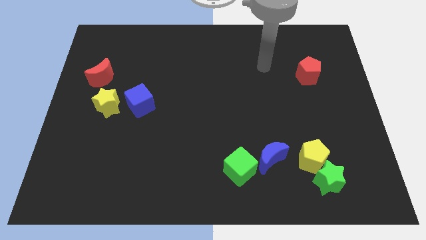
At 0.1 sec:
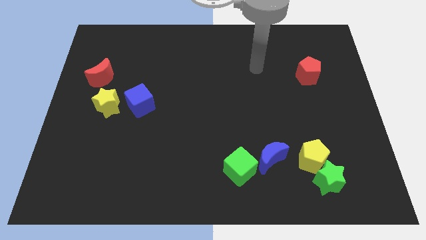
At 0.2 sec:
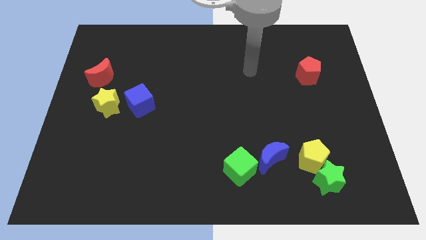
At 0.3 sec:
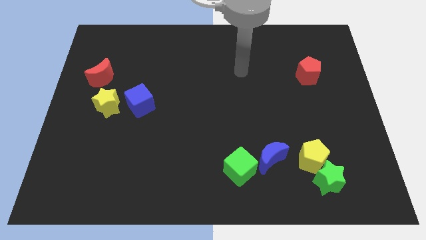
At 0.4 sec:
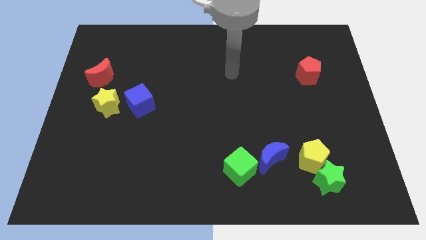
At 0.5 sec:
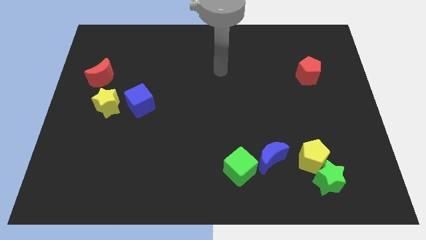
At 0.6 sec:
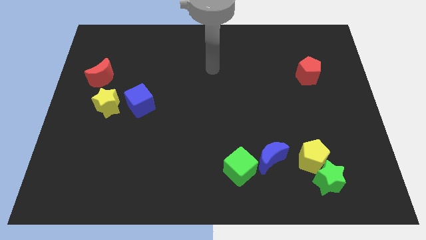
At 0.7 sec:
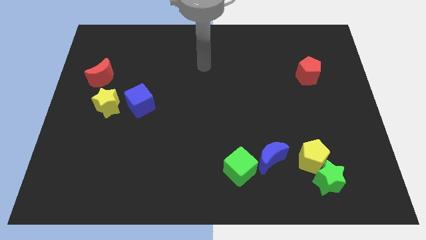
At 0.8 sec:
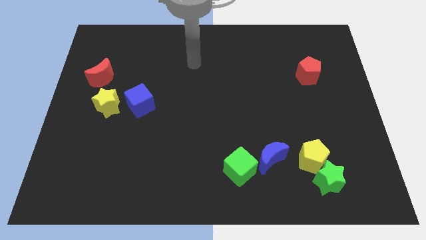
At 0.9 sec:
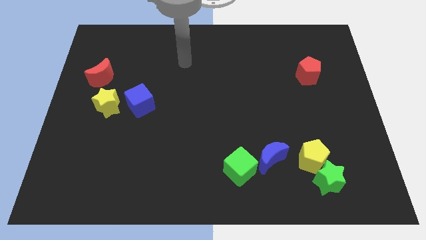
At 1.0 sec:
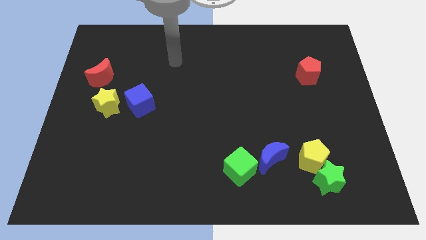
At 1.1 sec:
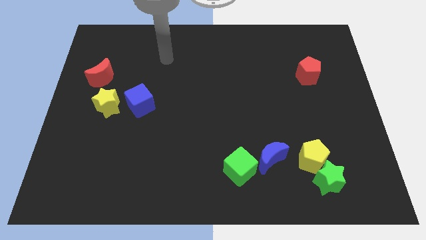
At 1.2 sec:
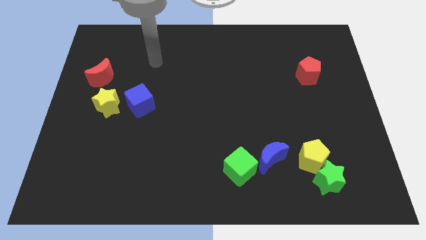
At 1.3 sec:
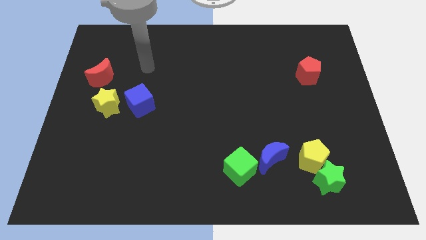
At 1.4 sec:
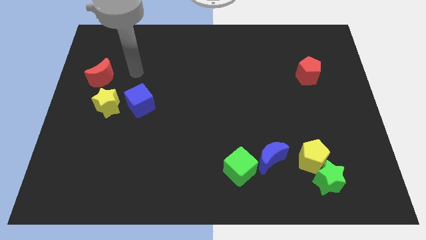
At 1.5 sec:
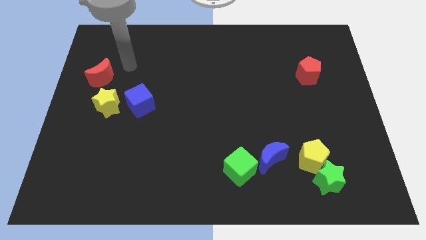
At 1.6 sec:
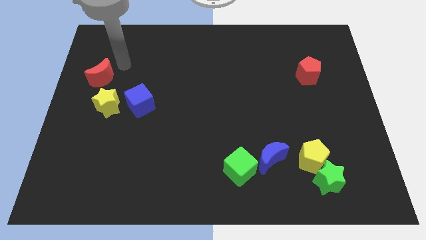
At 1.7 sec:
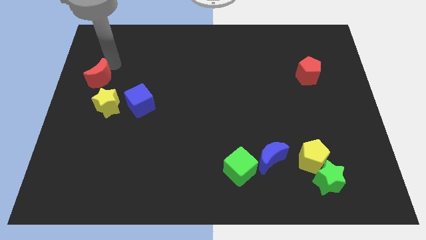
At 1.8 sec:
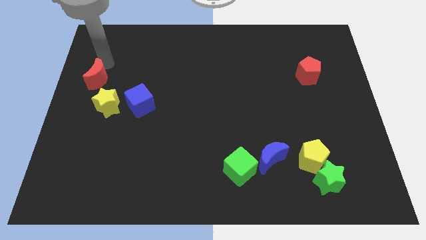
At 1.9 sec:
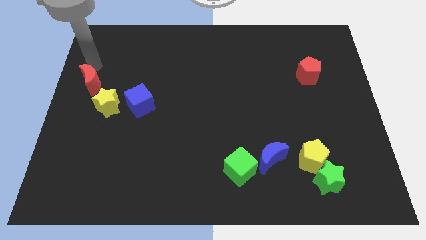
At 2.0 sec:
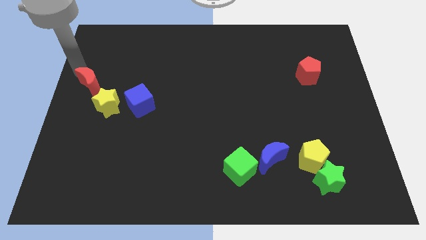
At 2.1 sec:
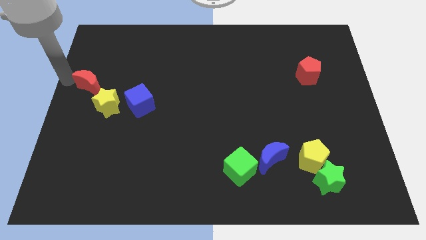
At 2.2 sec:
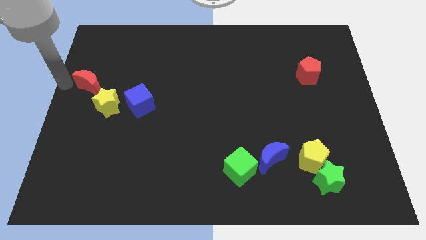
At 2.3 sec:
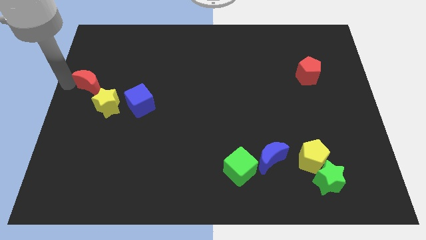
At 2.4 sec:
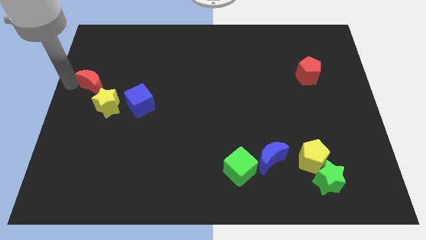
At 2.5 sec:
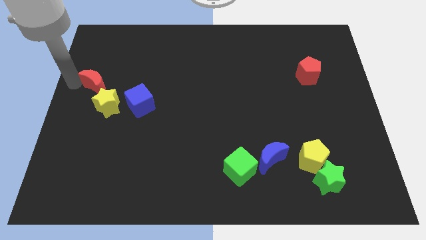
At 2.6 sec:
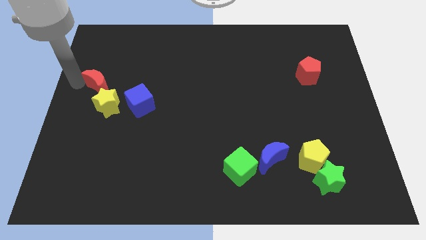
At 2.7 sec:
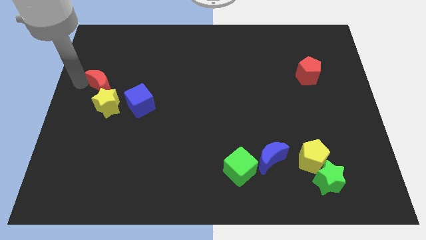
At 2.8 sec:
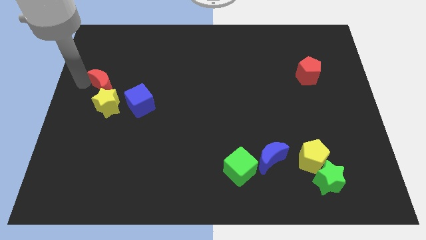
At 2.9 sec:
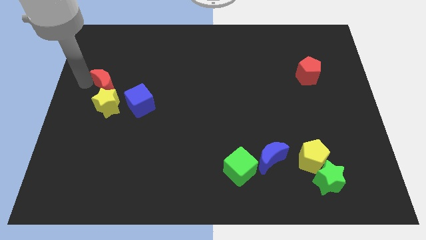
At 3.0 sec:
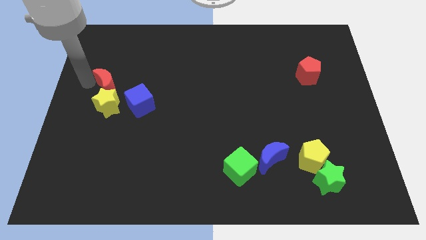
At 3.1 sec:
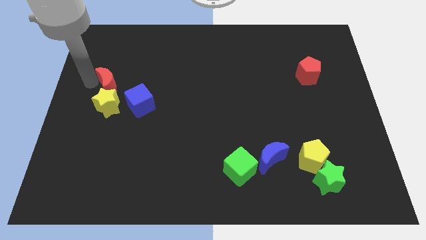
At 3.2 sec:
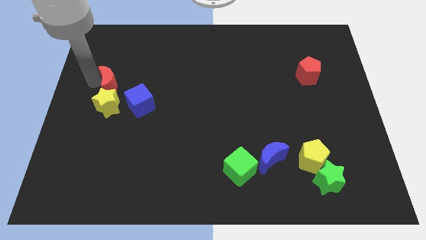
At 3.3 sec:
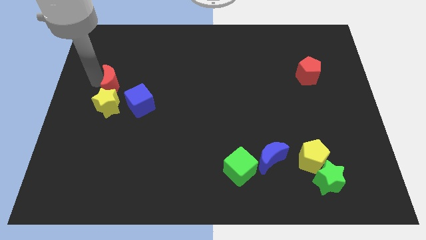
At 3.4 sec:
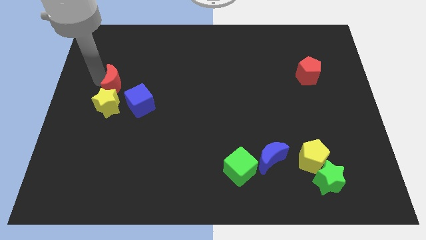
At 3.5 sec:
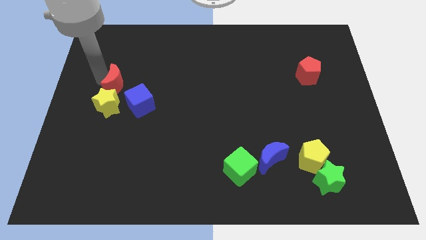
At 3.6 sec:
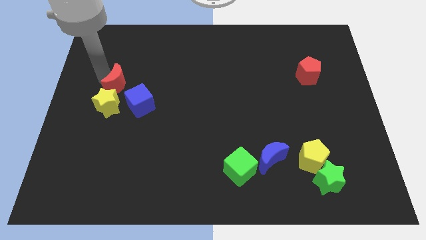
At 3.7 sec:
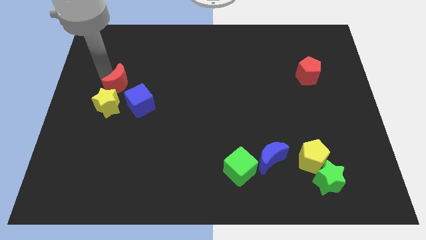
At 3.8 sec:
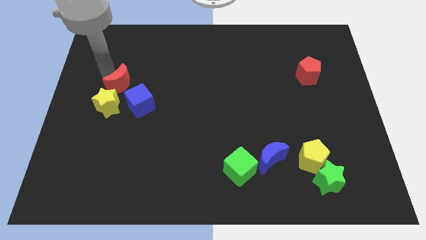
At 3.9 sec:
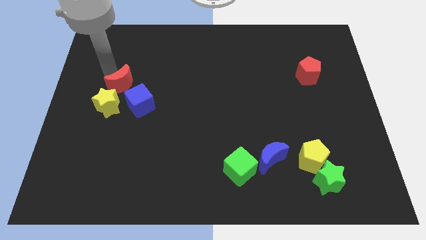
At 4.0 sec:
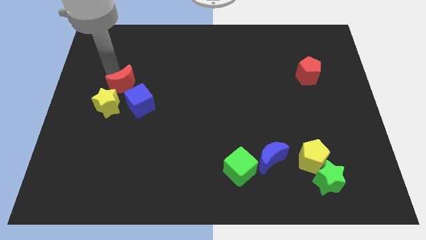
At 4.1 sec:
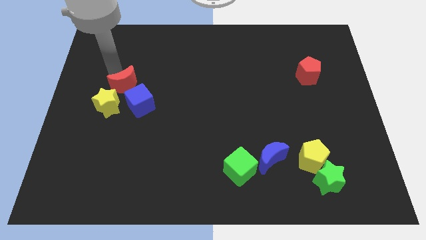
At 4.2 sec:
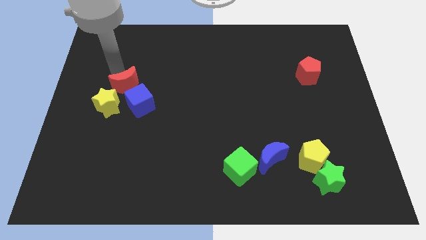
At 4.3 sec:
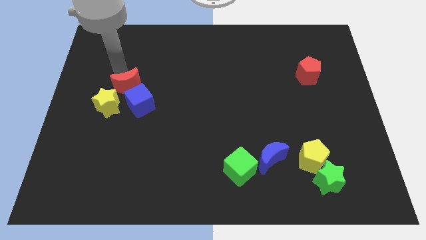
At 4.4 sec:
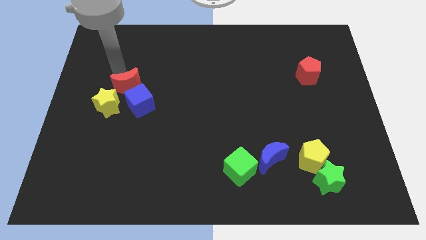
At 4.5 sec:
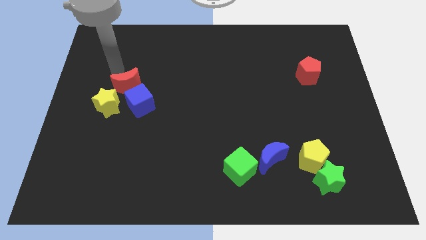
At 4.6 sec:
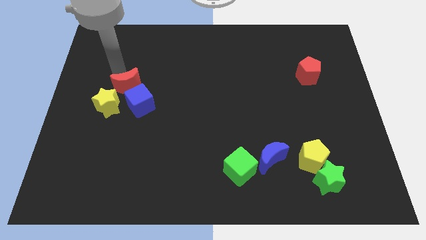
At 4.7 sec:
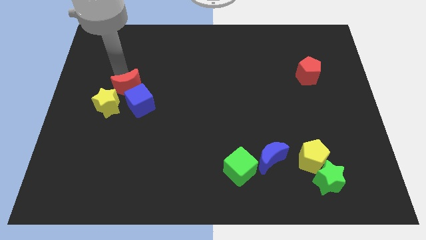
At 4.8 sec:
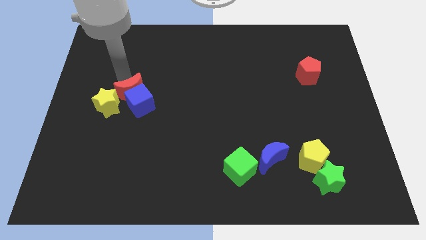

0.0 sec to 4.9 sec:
push the red moon close to the blue cube

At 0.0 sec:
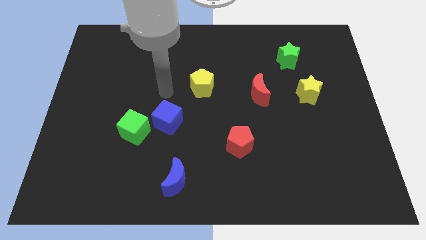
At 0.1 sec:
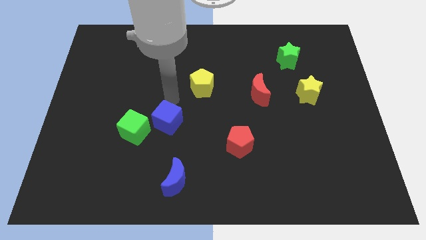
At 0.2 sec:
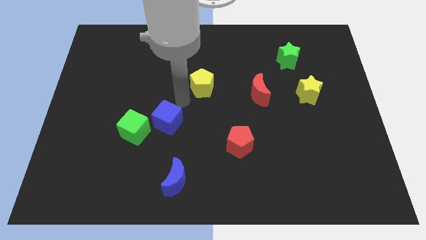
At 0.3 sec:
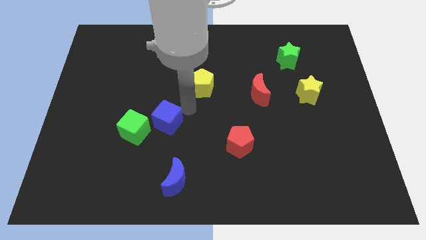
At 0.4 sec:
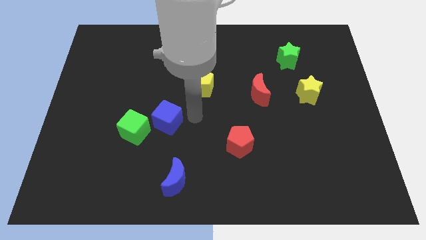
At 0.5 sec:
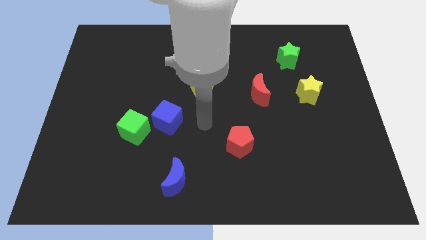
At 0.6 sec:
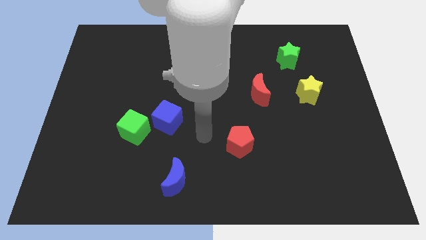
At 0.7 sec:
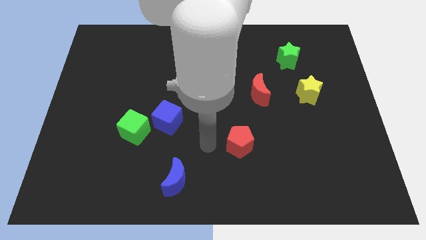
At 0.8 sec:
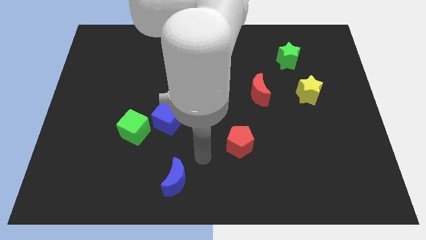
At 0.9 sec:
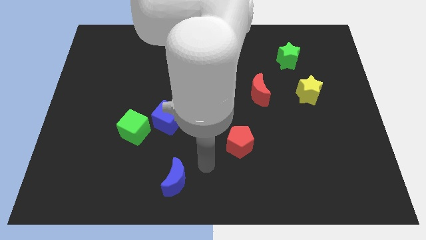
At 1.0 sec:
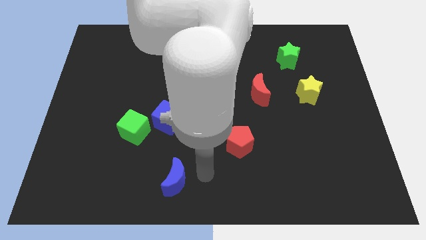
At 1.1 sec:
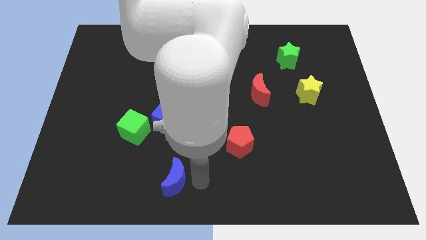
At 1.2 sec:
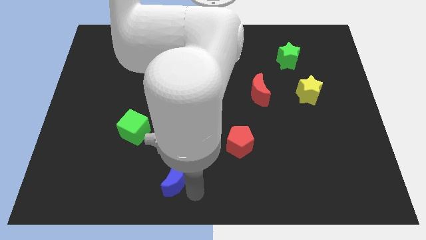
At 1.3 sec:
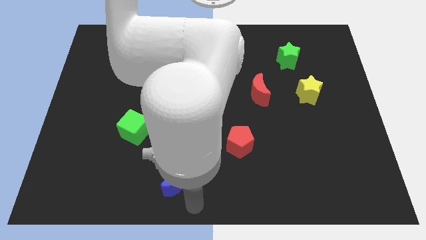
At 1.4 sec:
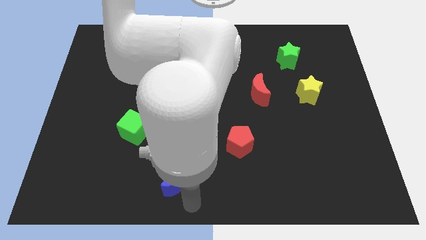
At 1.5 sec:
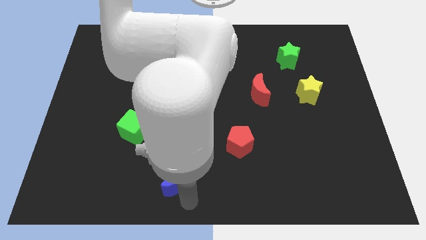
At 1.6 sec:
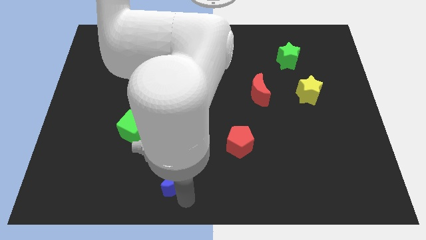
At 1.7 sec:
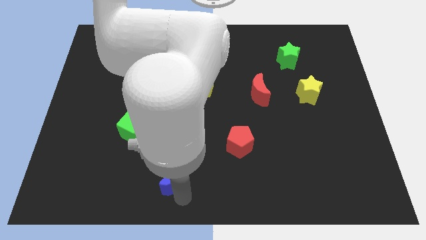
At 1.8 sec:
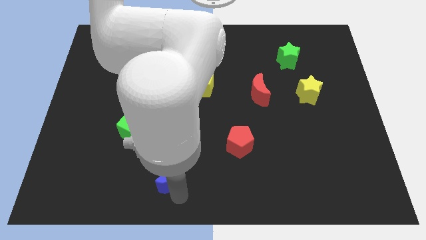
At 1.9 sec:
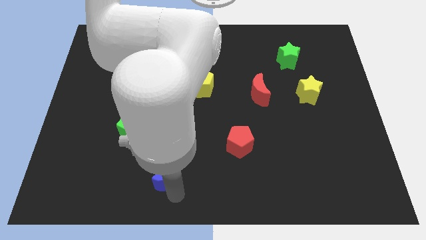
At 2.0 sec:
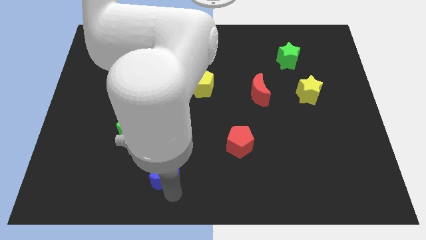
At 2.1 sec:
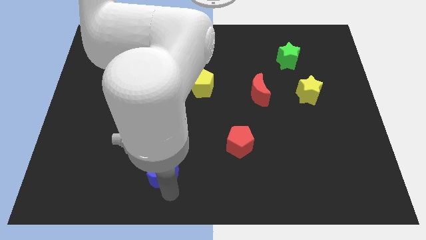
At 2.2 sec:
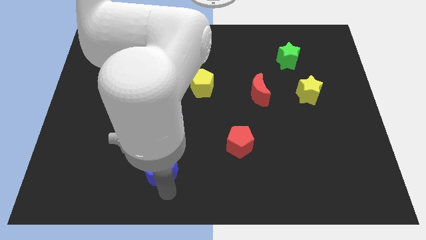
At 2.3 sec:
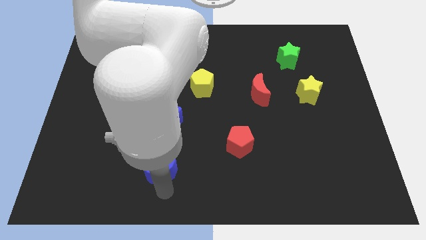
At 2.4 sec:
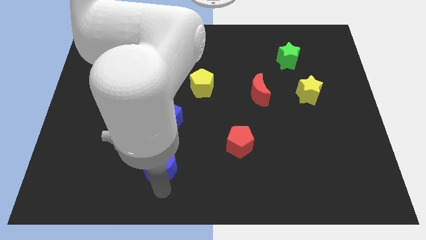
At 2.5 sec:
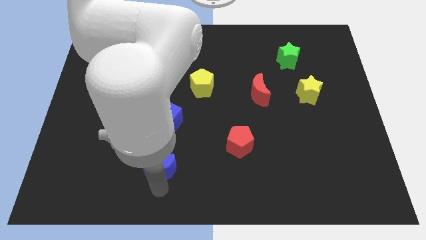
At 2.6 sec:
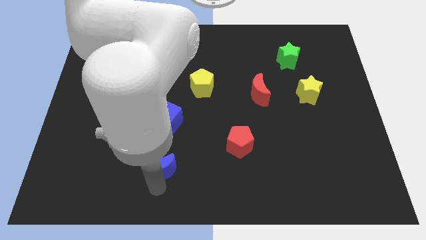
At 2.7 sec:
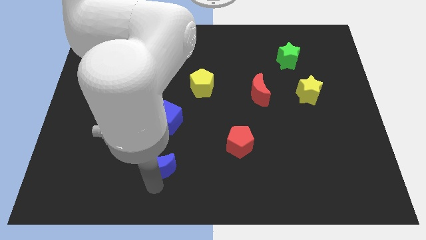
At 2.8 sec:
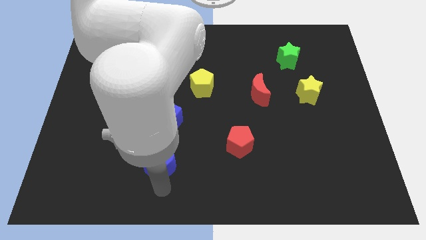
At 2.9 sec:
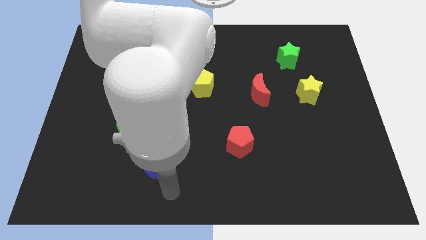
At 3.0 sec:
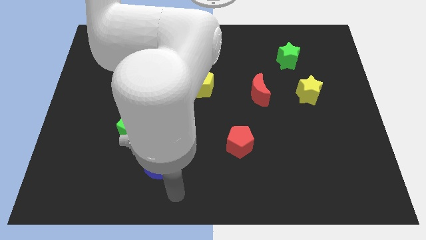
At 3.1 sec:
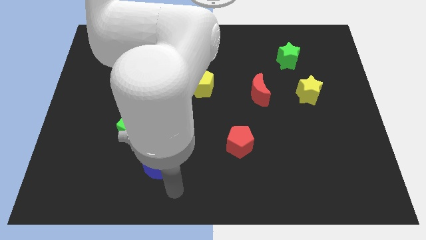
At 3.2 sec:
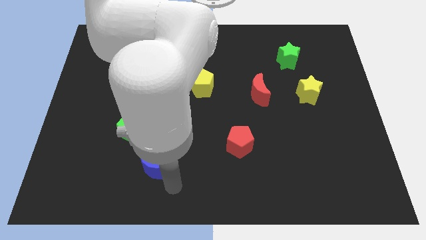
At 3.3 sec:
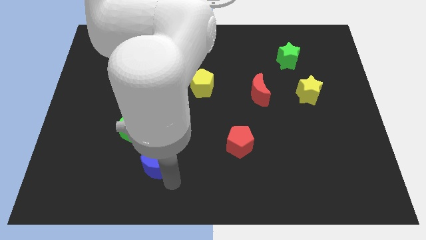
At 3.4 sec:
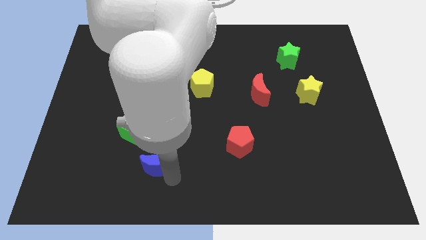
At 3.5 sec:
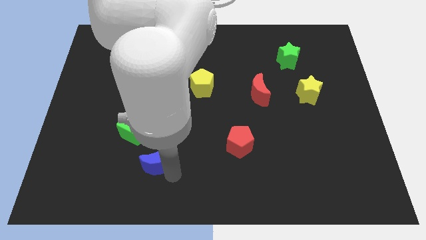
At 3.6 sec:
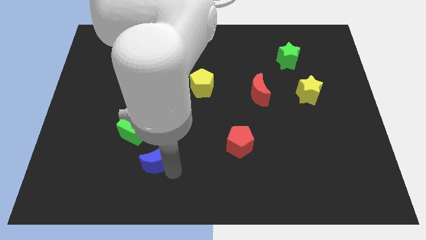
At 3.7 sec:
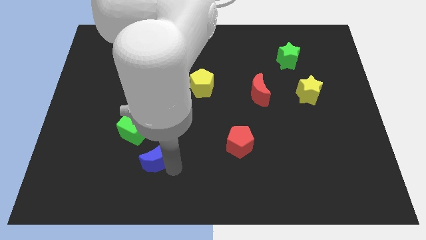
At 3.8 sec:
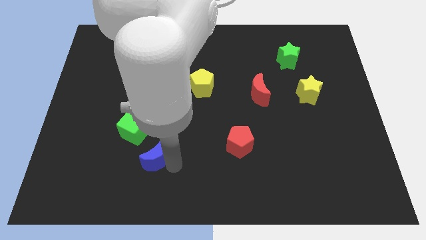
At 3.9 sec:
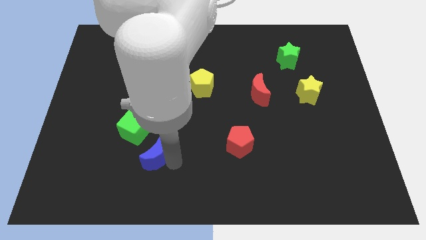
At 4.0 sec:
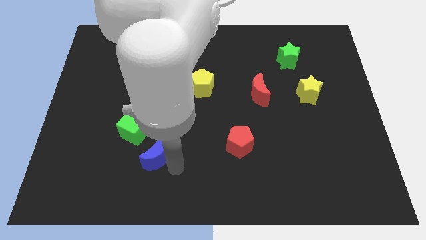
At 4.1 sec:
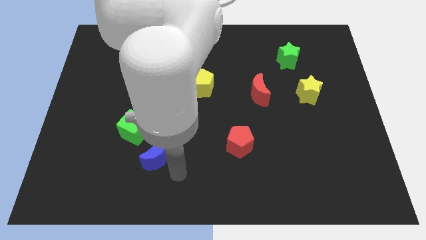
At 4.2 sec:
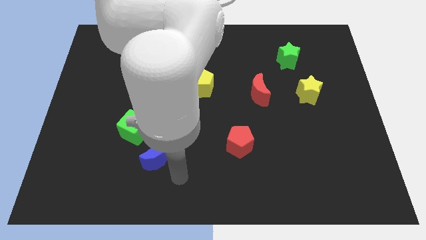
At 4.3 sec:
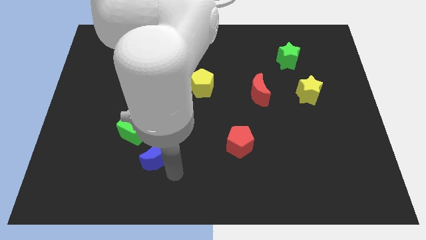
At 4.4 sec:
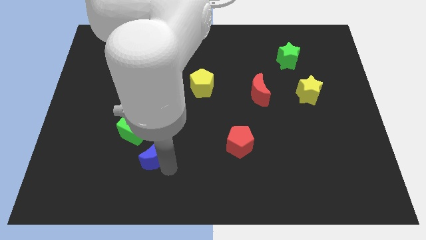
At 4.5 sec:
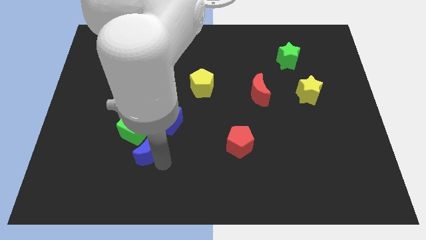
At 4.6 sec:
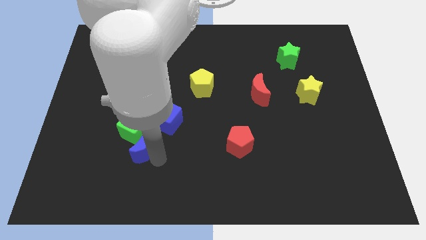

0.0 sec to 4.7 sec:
push the blue moon close to the green cube
